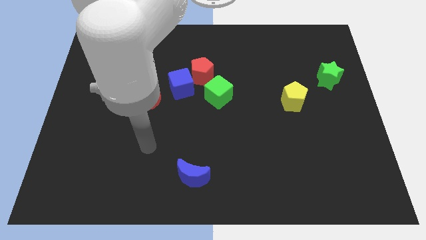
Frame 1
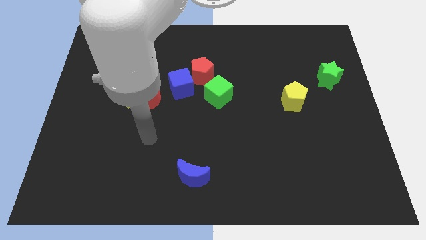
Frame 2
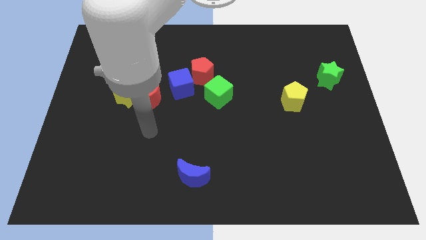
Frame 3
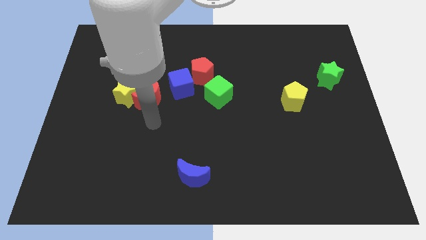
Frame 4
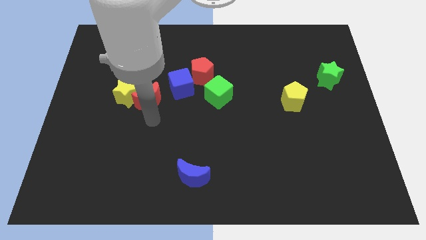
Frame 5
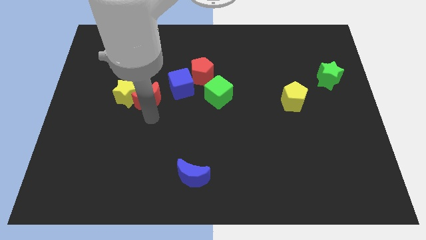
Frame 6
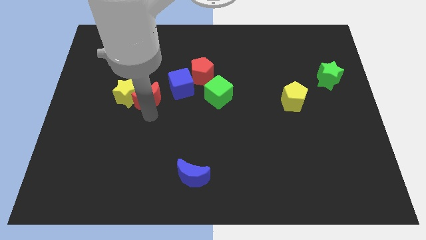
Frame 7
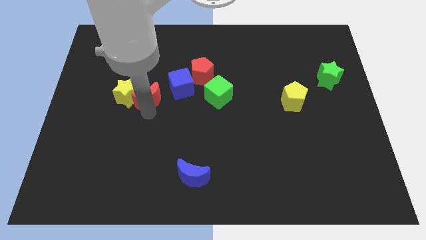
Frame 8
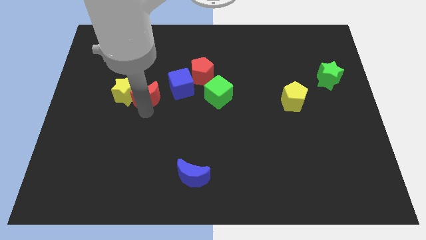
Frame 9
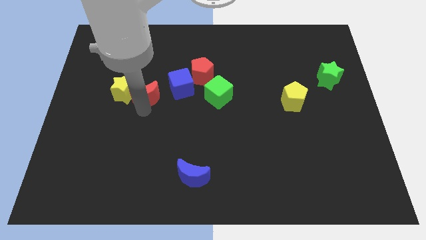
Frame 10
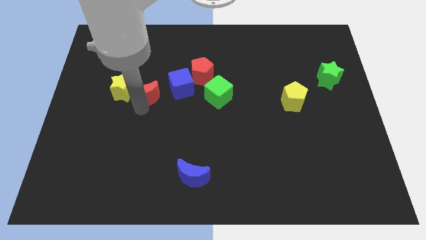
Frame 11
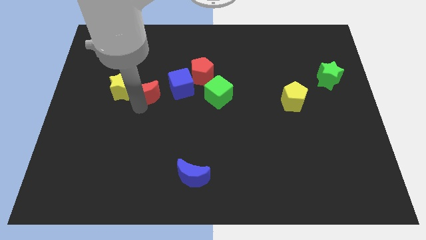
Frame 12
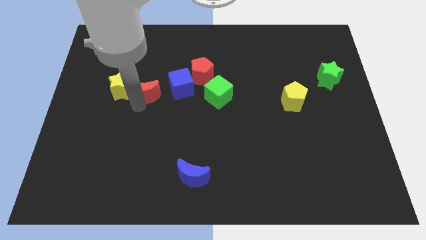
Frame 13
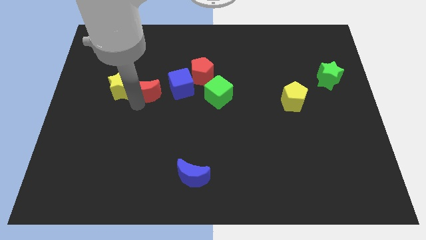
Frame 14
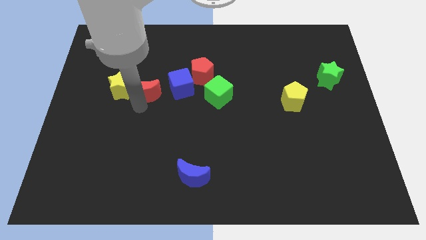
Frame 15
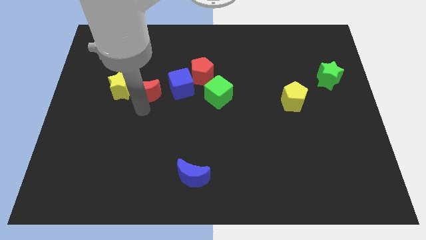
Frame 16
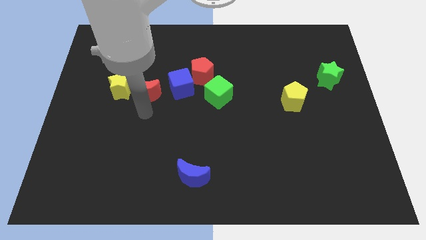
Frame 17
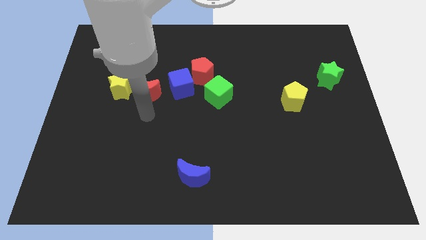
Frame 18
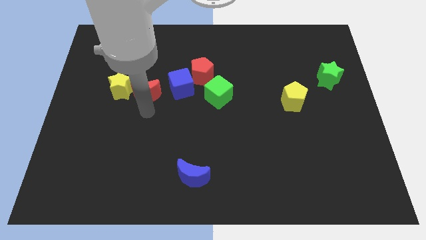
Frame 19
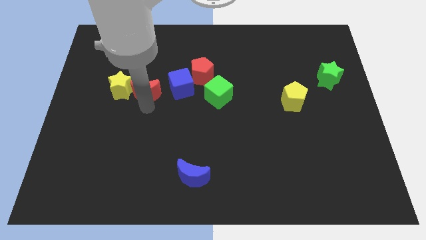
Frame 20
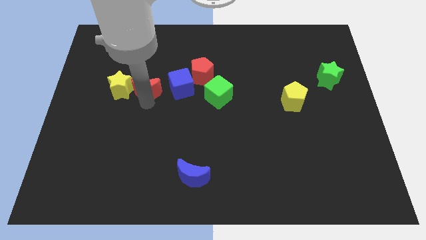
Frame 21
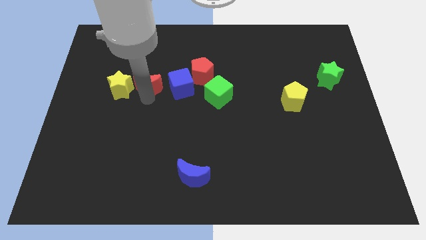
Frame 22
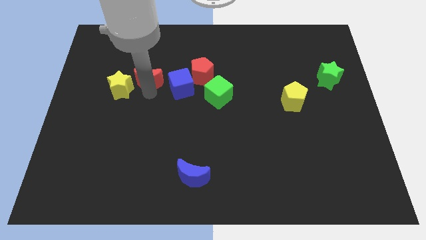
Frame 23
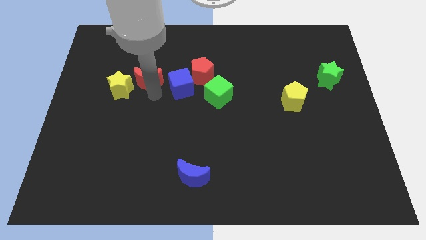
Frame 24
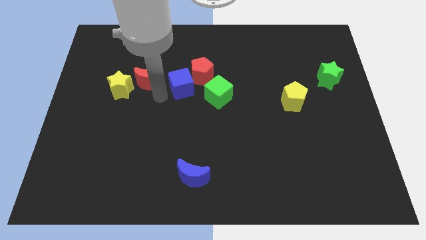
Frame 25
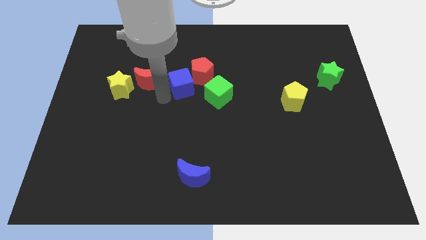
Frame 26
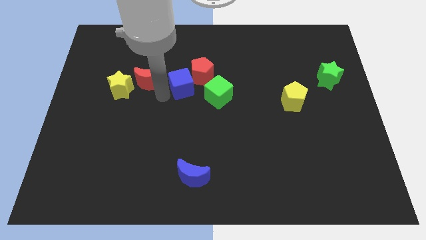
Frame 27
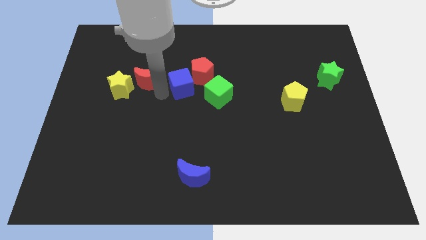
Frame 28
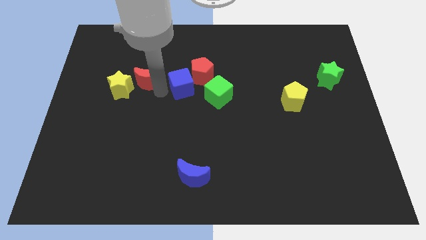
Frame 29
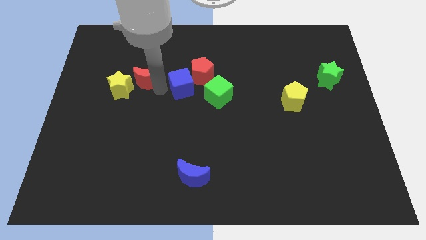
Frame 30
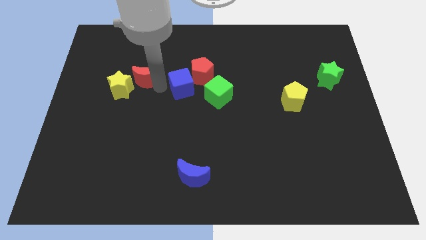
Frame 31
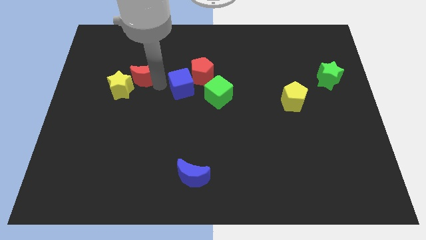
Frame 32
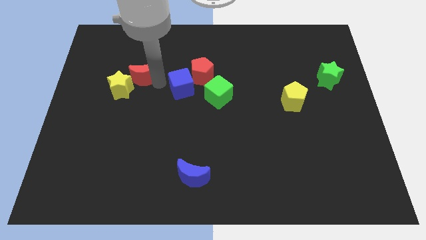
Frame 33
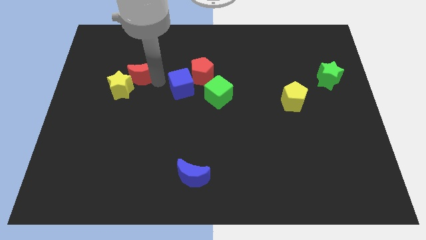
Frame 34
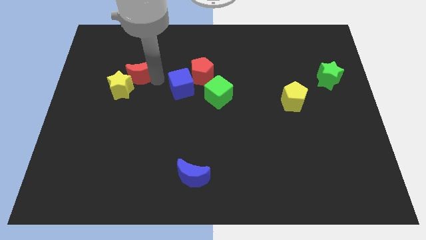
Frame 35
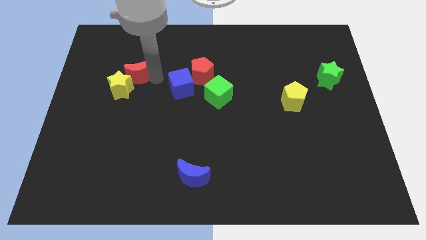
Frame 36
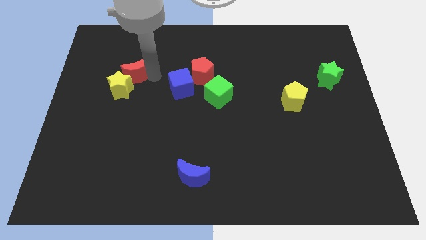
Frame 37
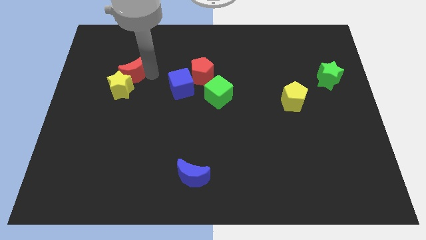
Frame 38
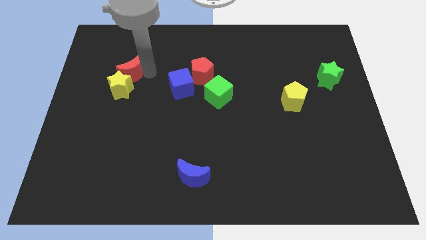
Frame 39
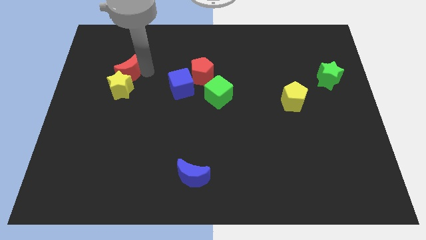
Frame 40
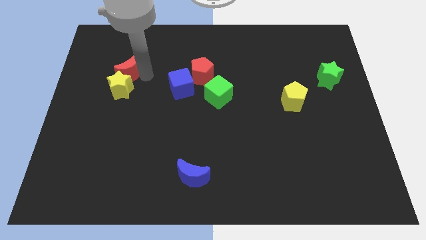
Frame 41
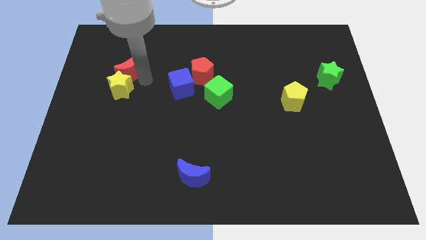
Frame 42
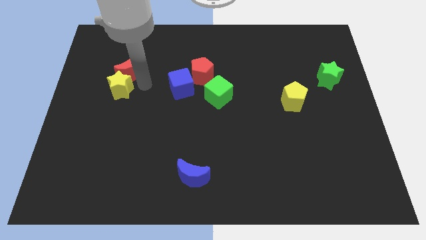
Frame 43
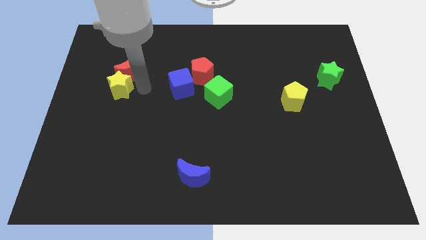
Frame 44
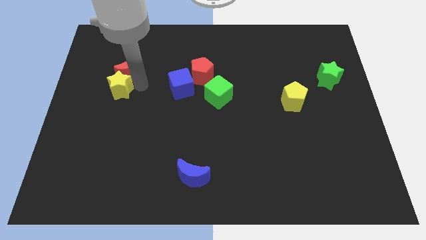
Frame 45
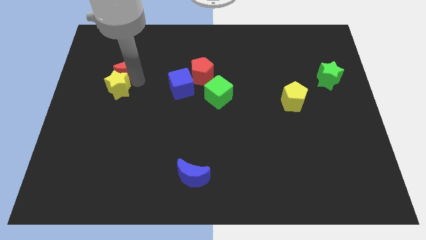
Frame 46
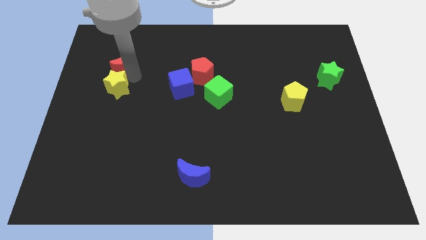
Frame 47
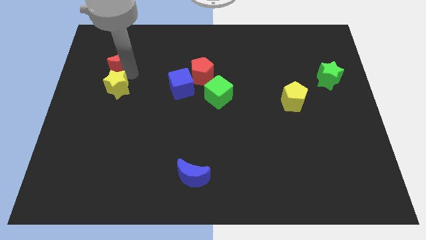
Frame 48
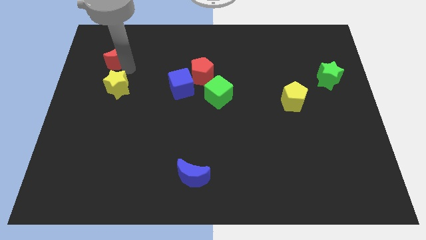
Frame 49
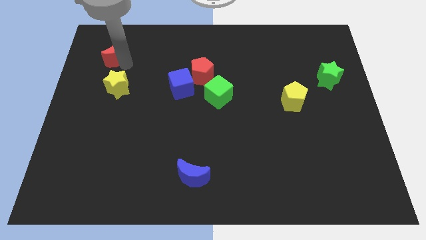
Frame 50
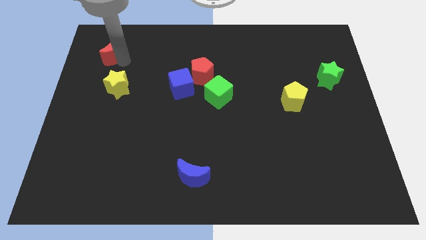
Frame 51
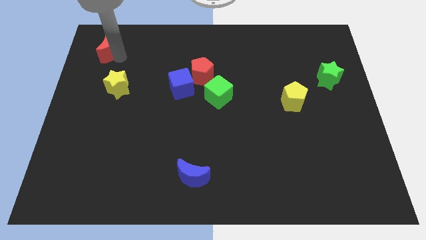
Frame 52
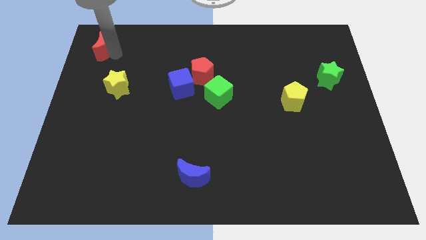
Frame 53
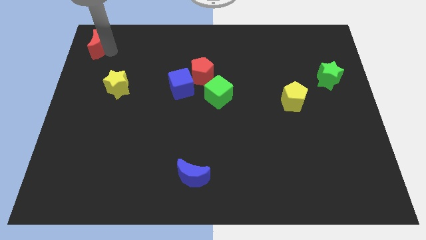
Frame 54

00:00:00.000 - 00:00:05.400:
put the red moon to the upper left corner
